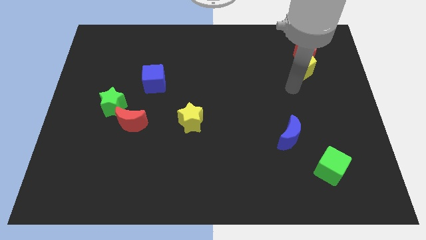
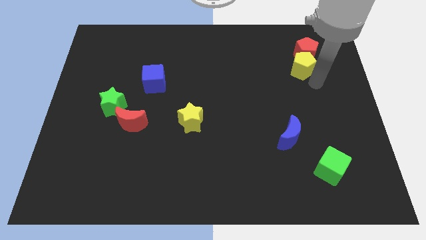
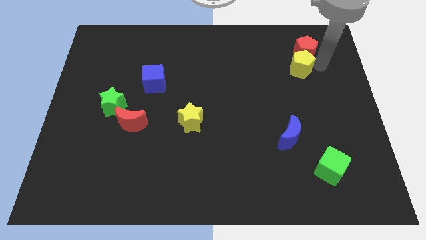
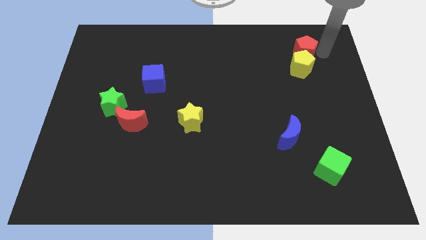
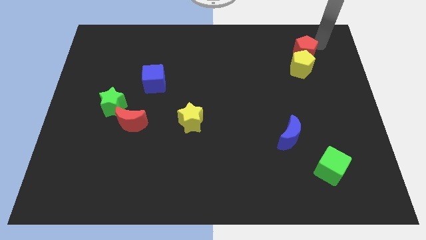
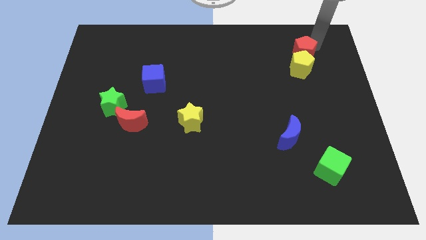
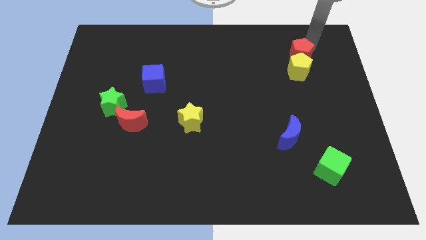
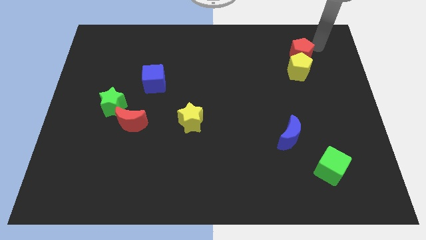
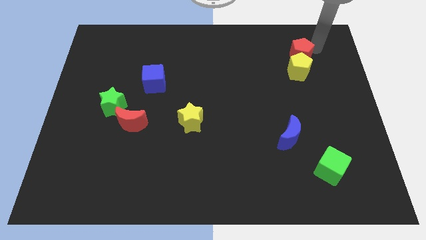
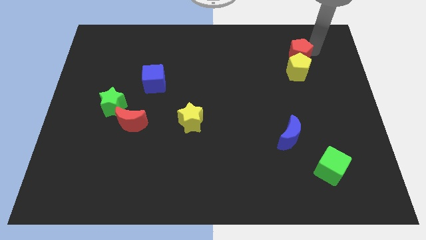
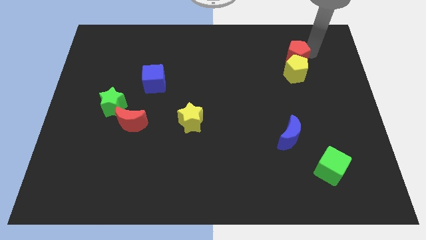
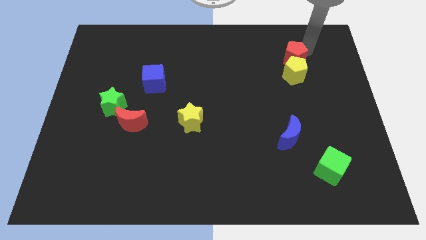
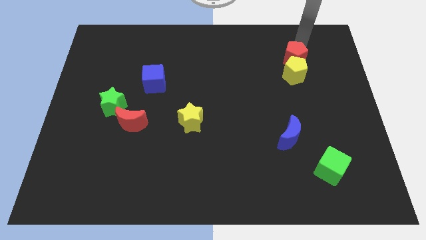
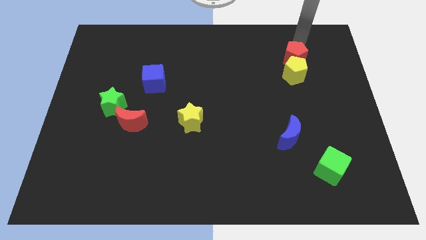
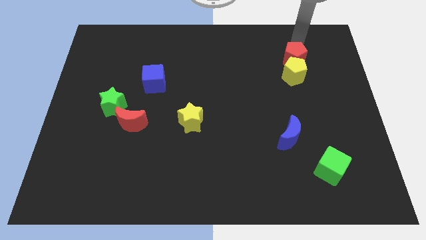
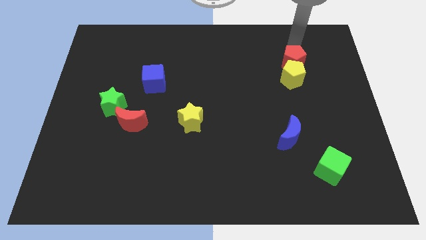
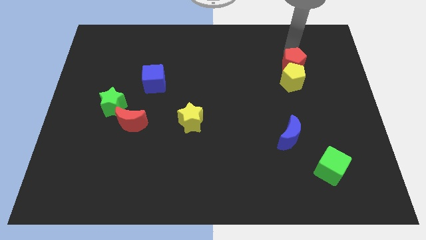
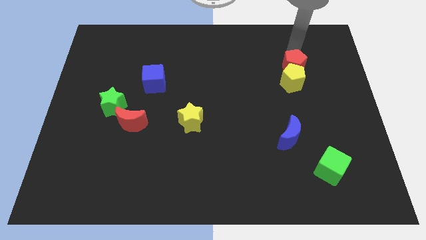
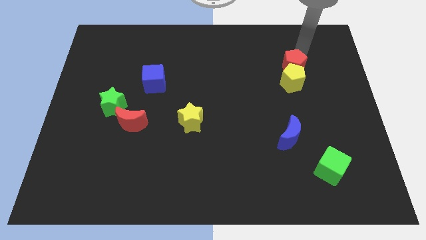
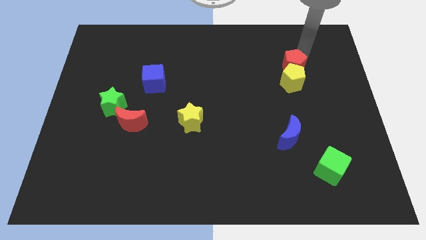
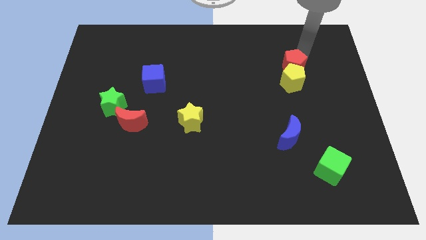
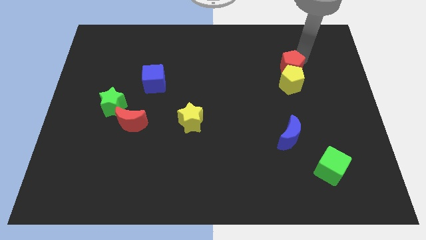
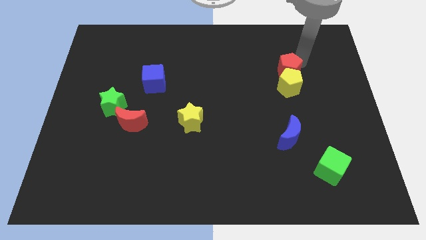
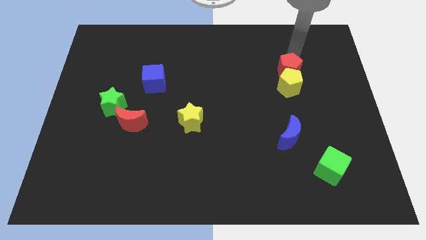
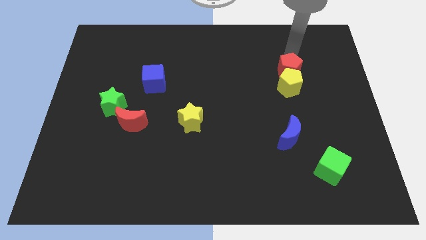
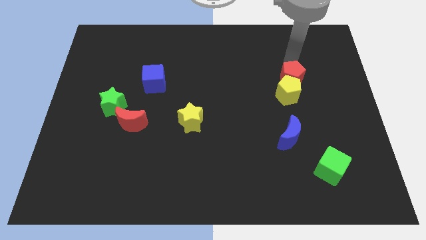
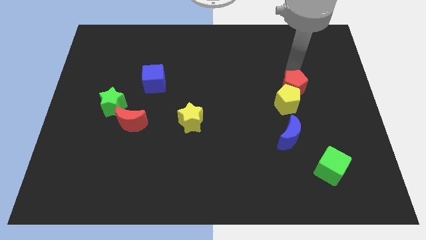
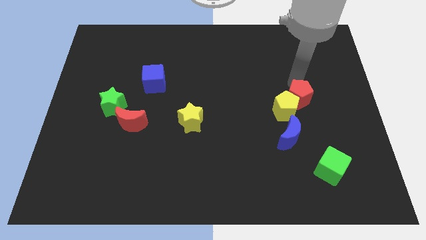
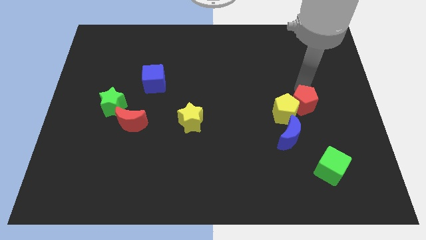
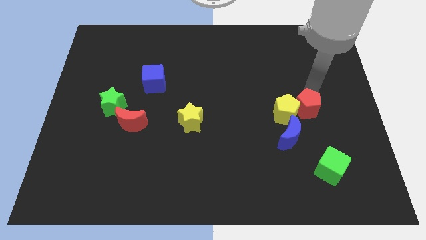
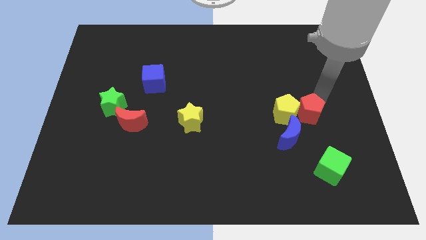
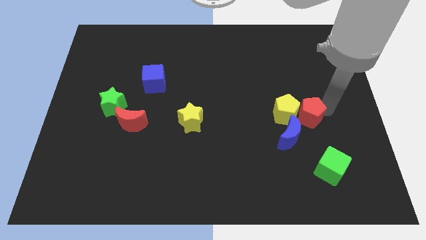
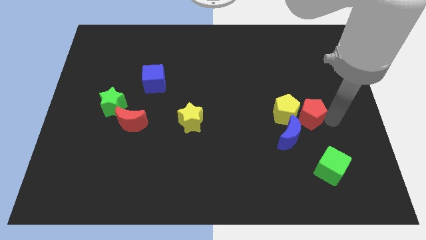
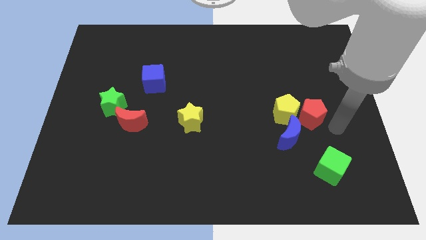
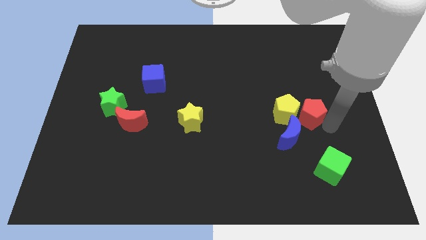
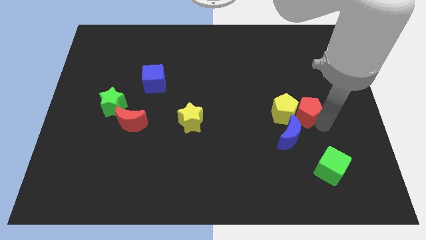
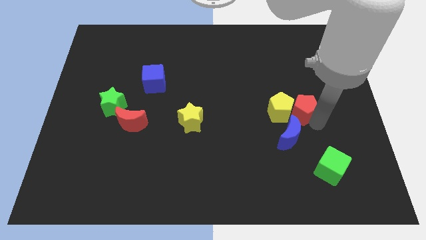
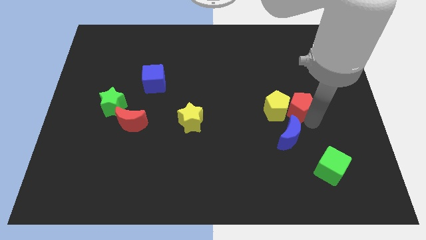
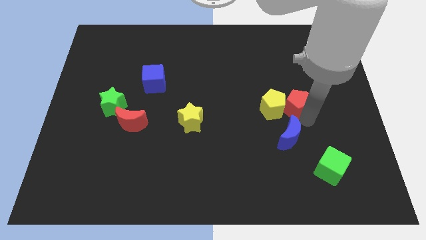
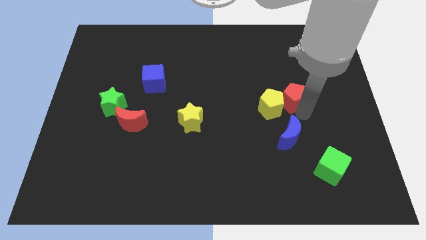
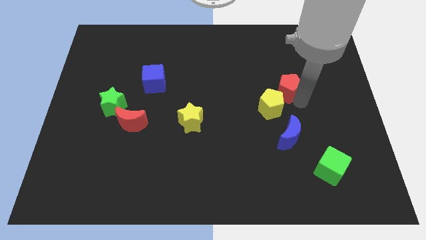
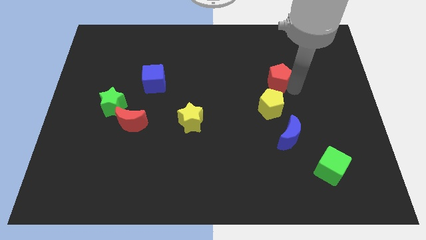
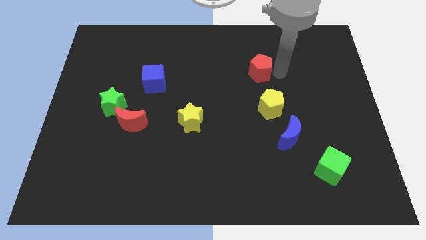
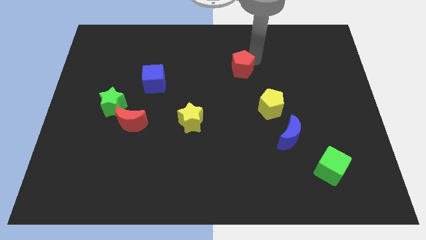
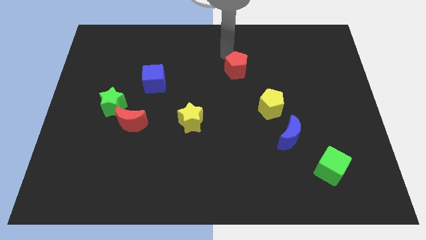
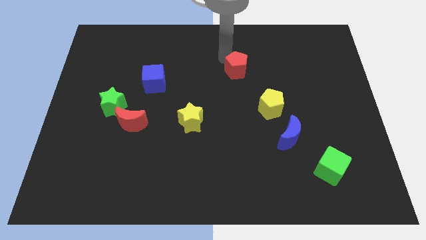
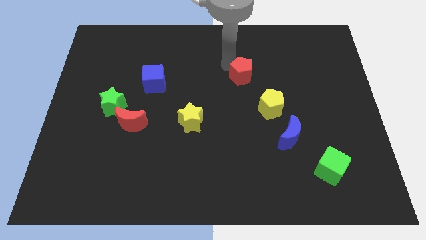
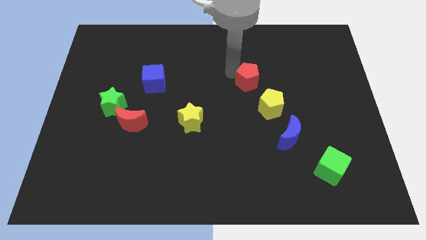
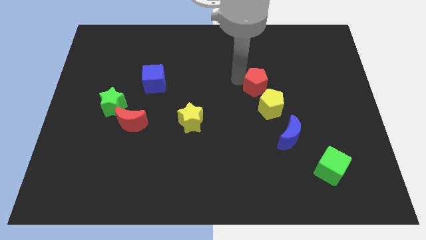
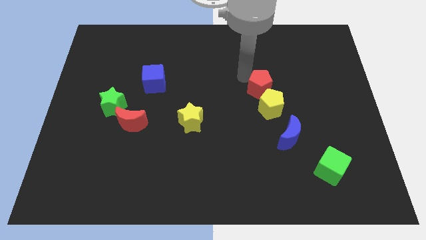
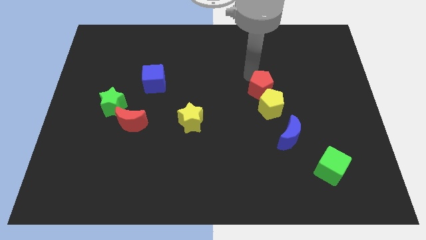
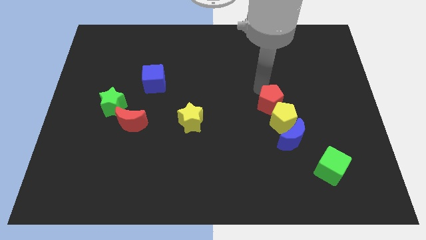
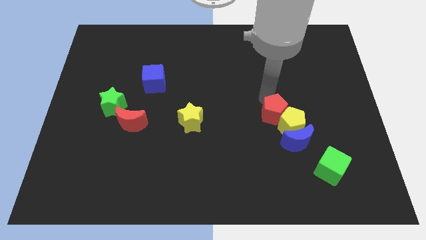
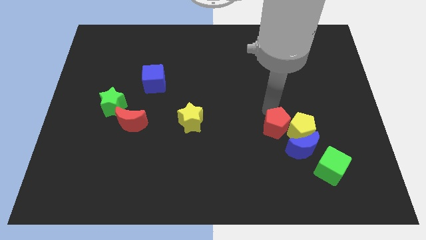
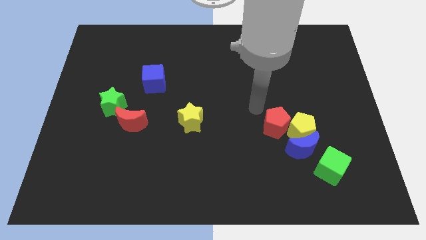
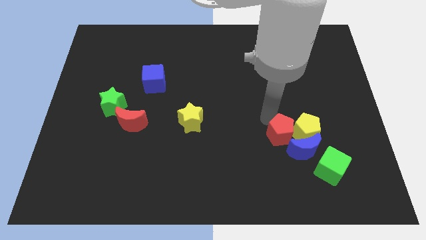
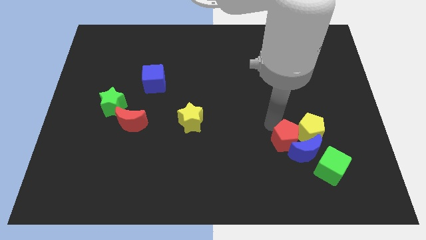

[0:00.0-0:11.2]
move the red pentagon towards the blue moon

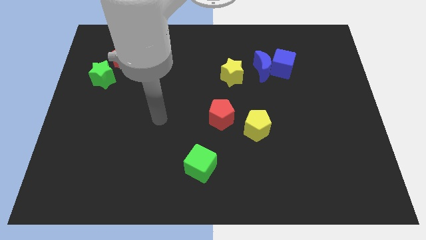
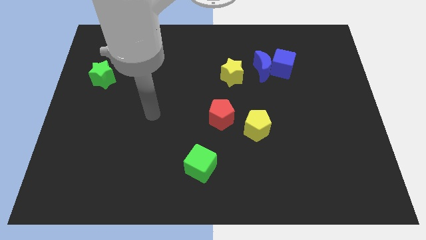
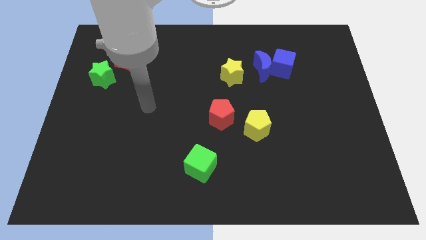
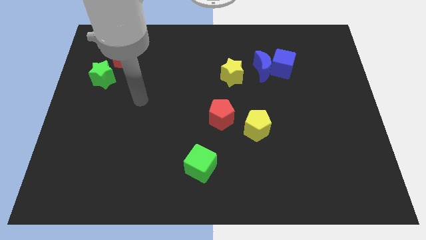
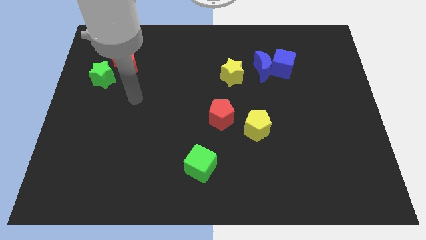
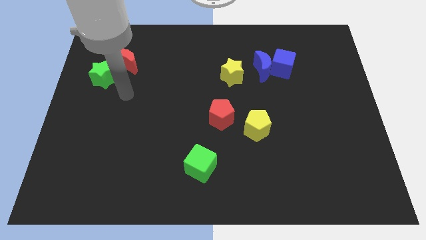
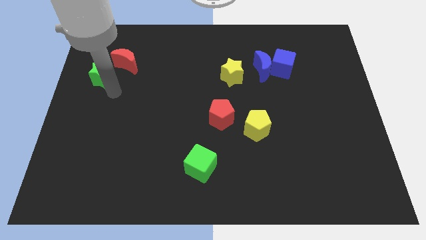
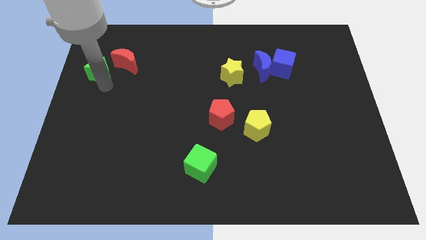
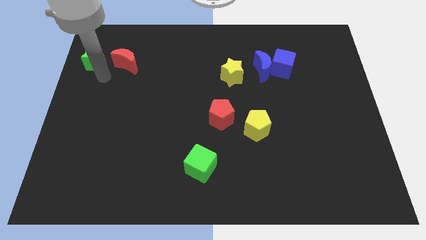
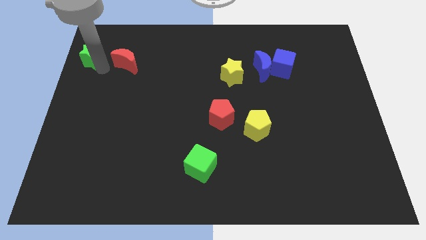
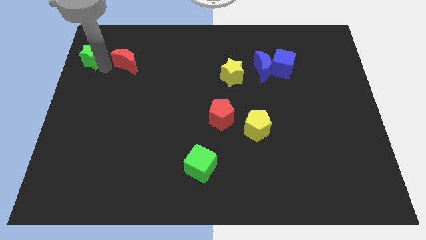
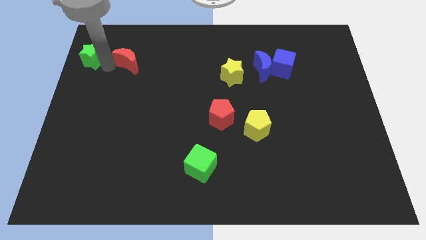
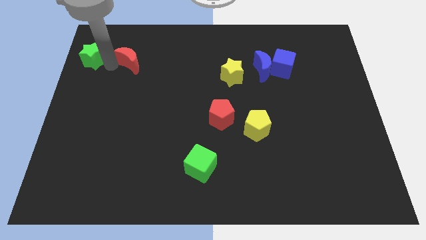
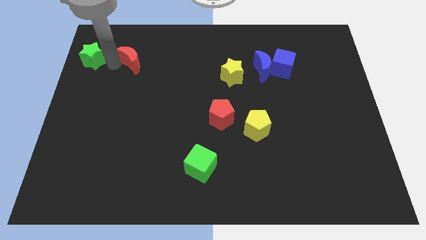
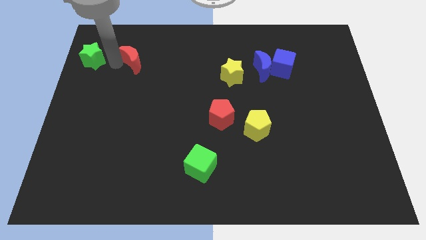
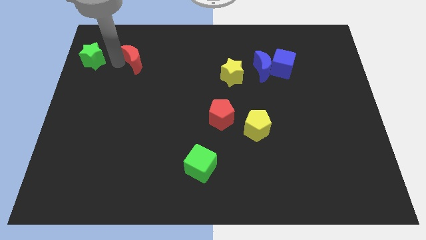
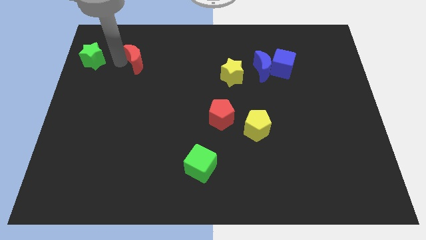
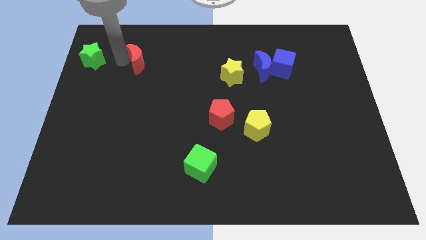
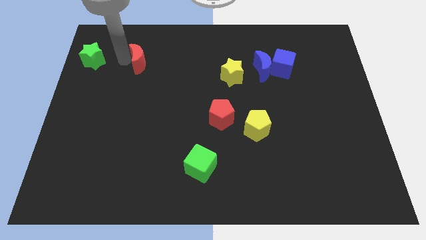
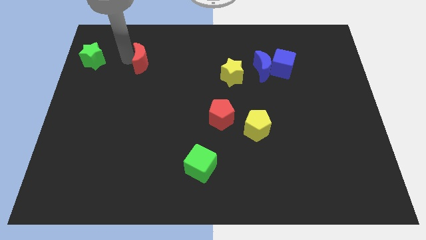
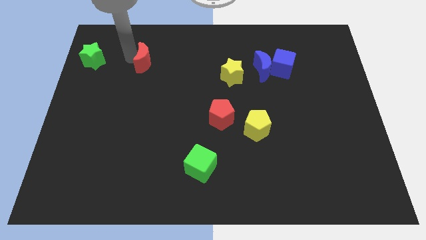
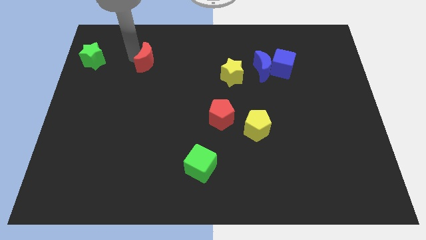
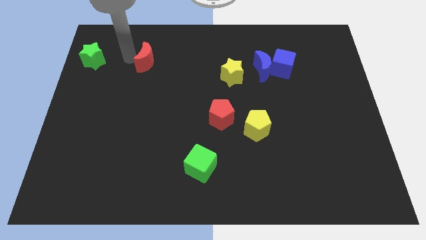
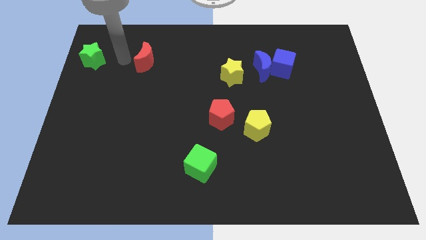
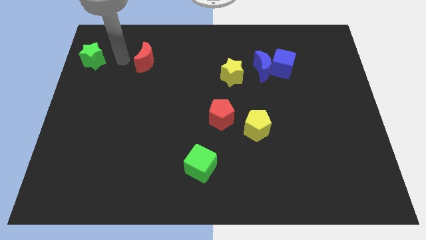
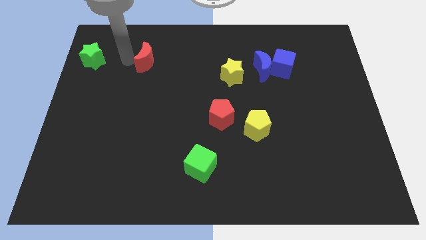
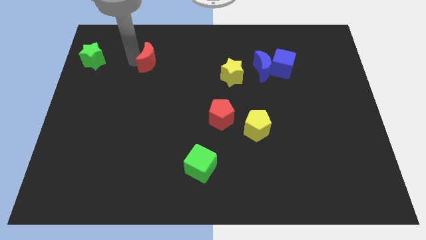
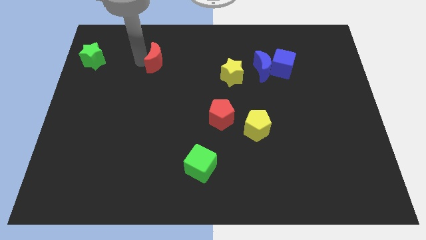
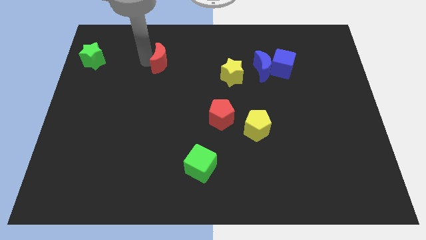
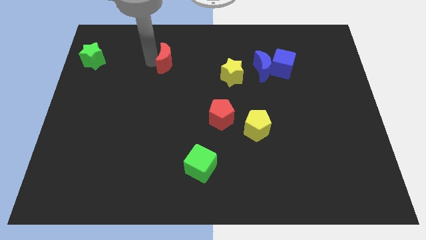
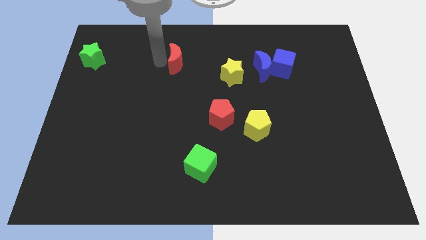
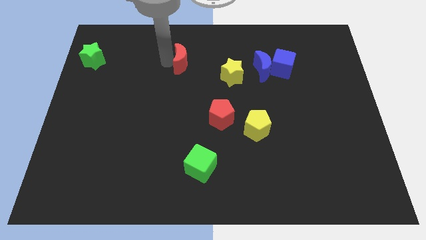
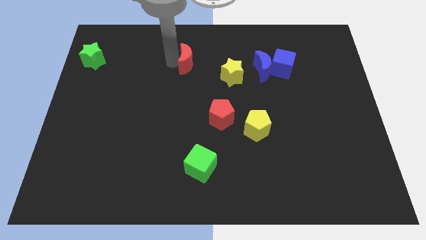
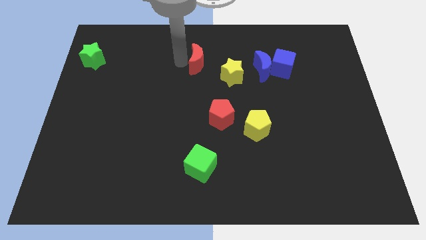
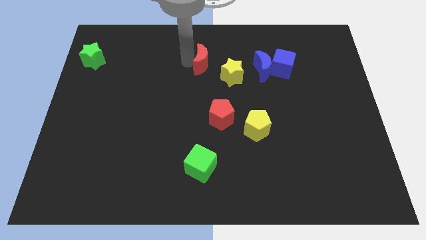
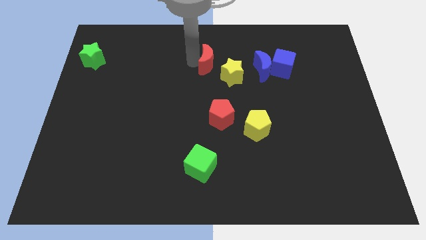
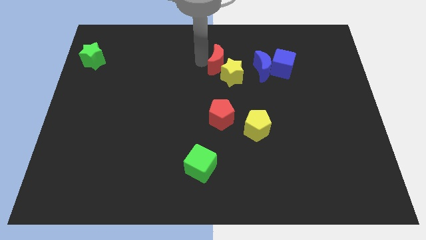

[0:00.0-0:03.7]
put the red moon next to the yellow star
